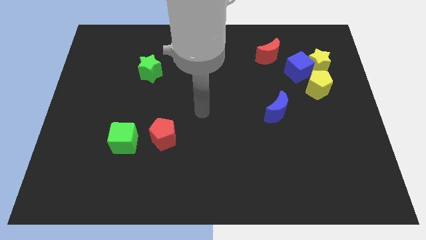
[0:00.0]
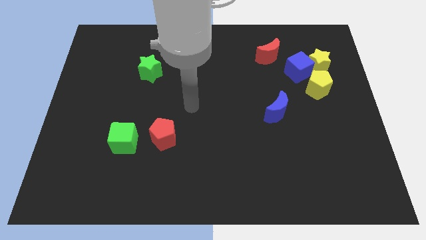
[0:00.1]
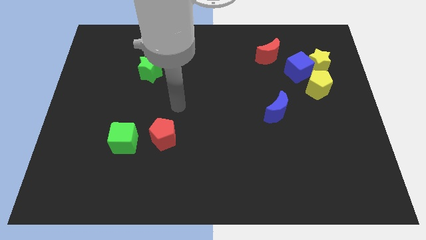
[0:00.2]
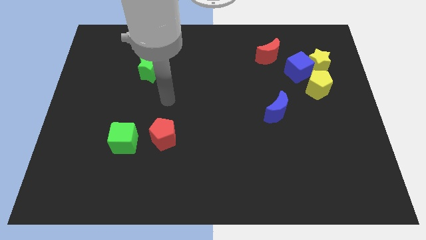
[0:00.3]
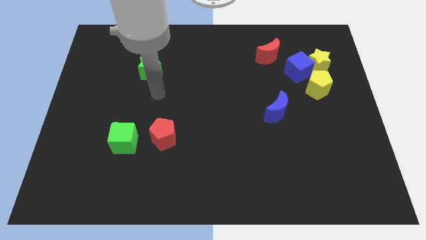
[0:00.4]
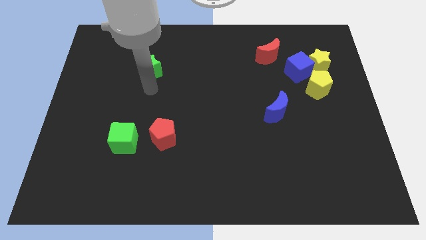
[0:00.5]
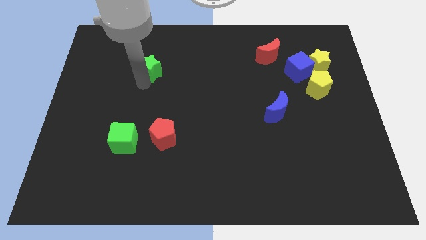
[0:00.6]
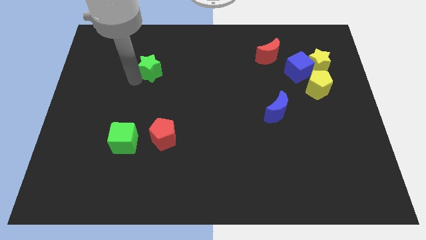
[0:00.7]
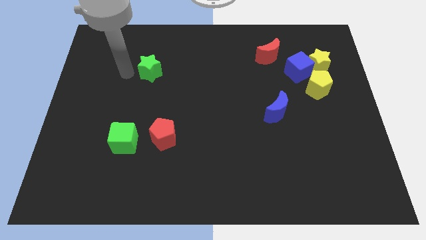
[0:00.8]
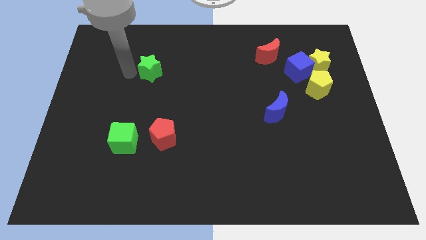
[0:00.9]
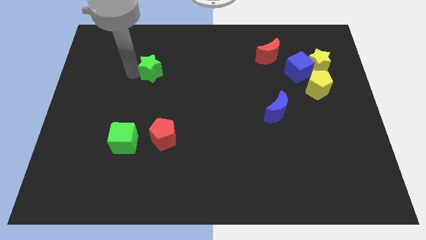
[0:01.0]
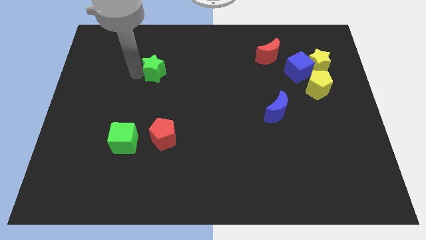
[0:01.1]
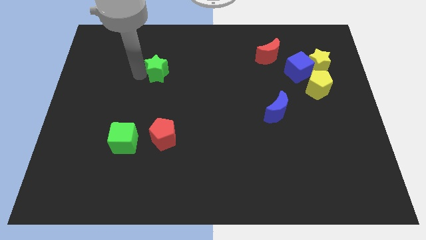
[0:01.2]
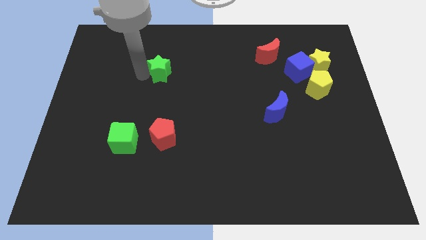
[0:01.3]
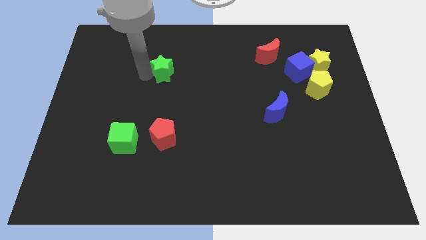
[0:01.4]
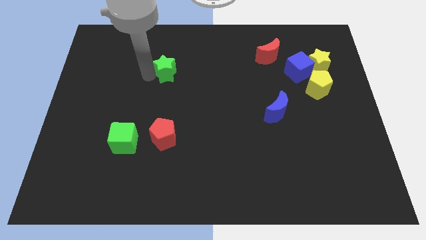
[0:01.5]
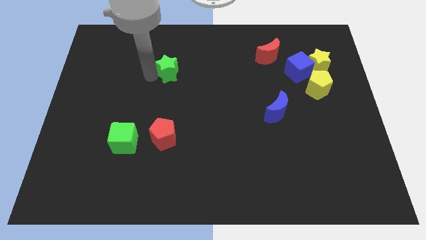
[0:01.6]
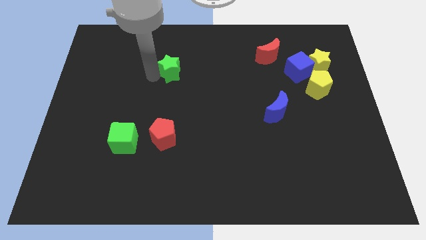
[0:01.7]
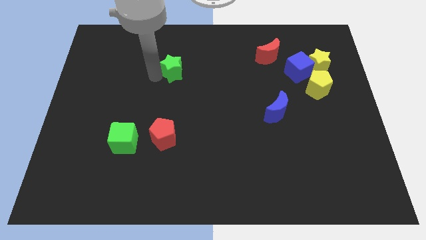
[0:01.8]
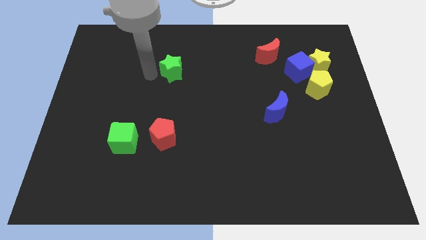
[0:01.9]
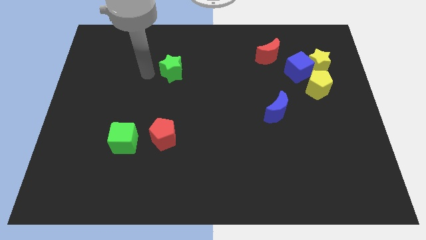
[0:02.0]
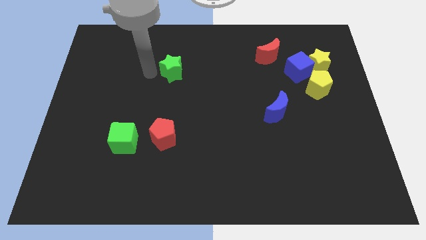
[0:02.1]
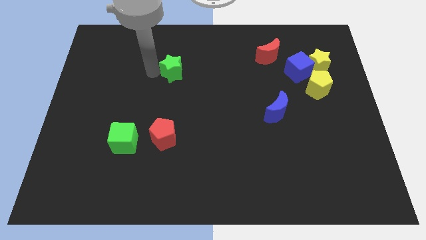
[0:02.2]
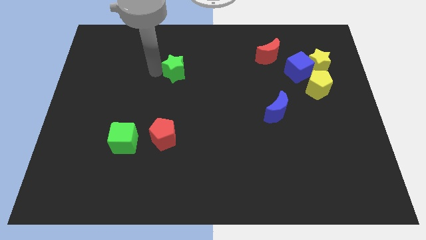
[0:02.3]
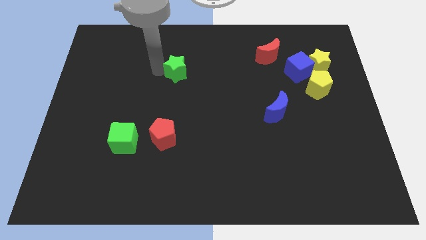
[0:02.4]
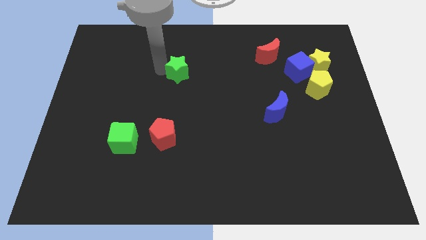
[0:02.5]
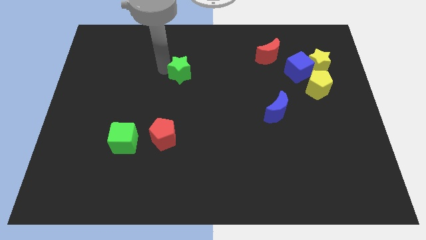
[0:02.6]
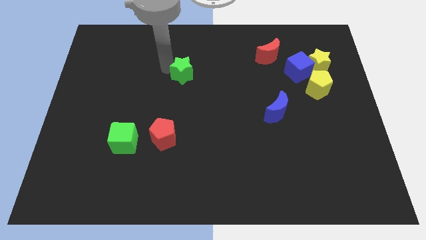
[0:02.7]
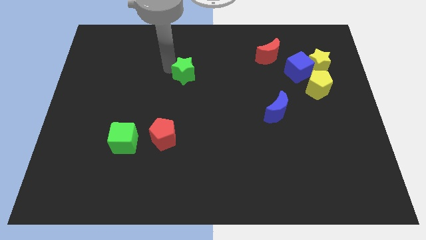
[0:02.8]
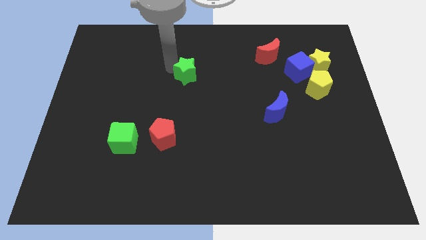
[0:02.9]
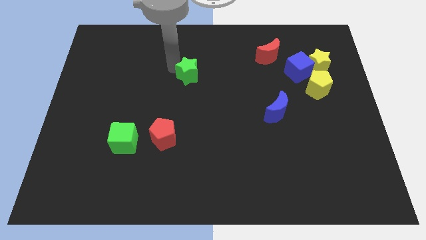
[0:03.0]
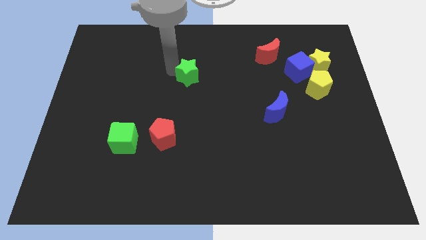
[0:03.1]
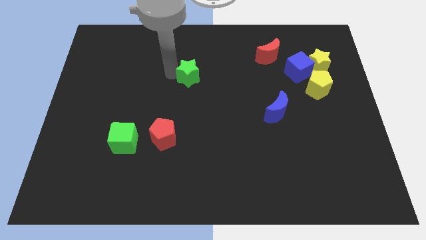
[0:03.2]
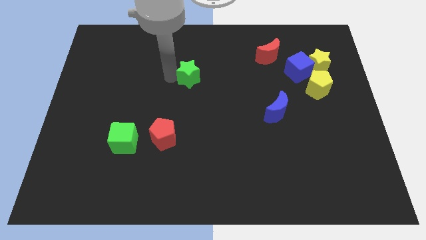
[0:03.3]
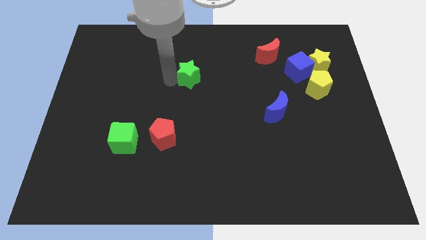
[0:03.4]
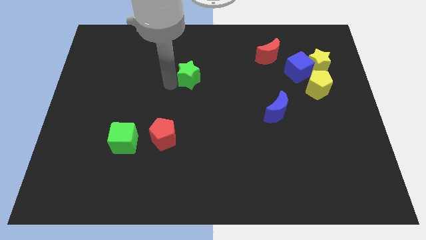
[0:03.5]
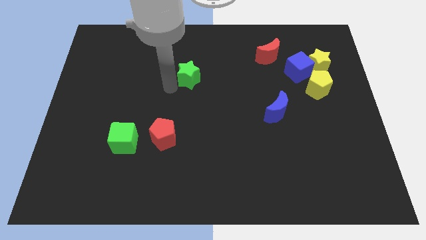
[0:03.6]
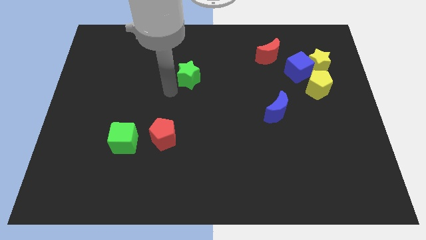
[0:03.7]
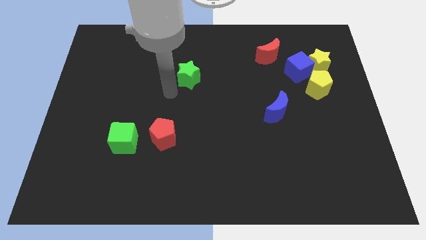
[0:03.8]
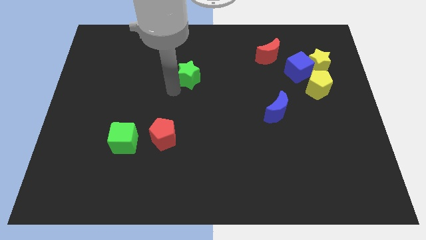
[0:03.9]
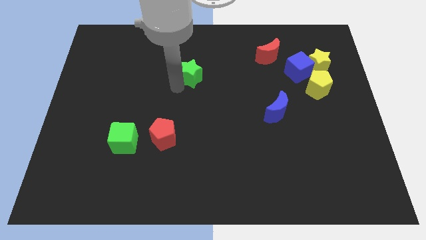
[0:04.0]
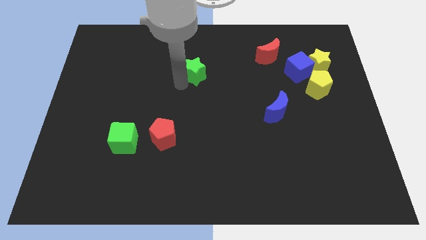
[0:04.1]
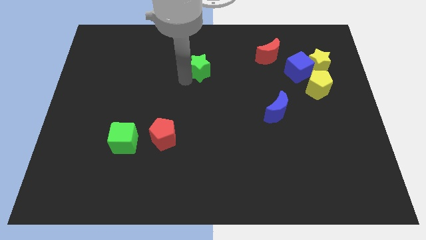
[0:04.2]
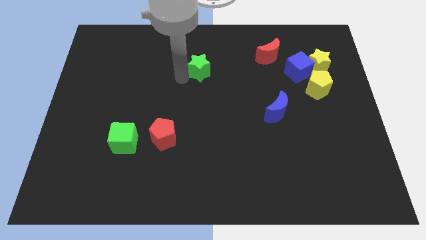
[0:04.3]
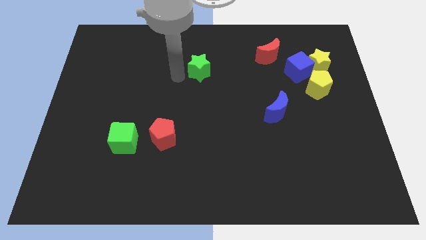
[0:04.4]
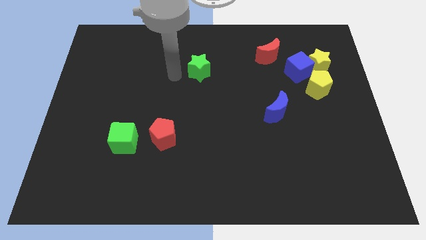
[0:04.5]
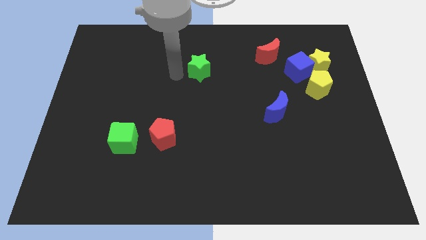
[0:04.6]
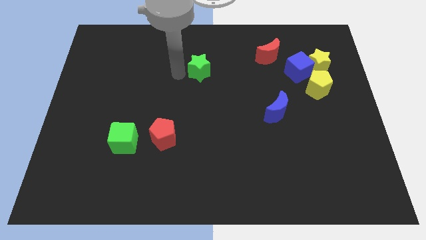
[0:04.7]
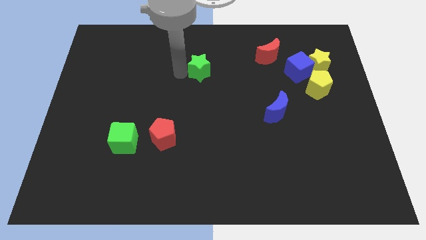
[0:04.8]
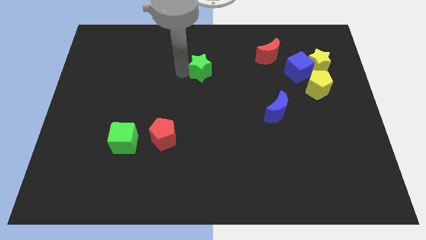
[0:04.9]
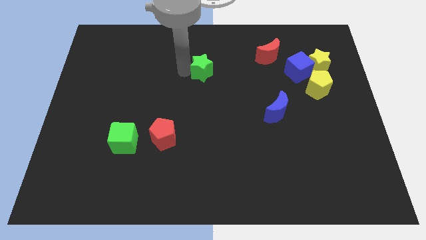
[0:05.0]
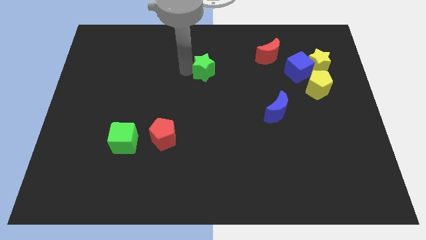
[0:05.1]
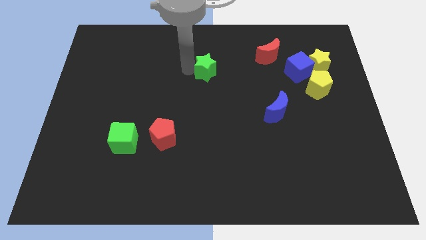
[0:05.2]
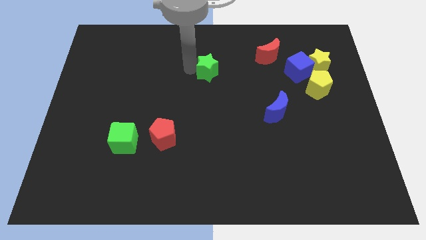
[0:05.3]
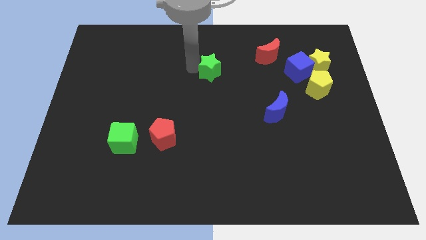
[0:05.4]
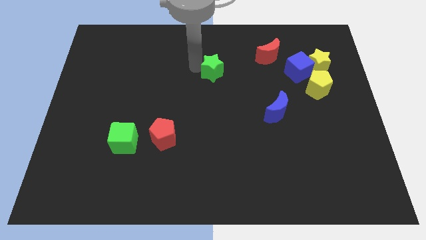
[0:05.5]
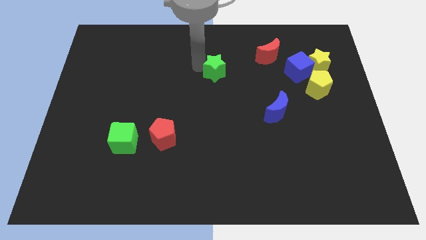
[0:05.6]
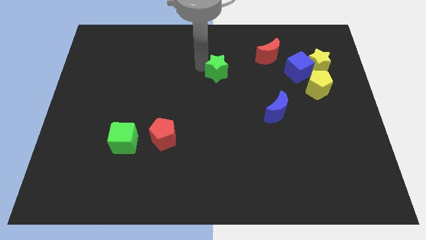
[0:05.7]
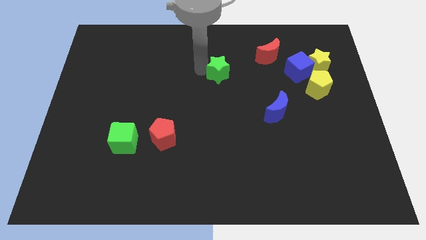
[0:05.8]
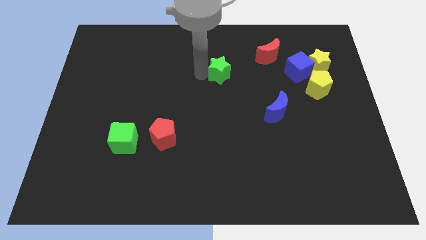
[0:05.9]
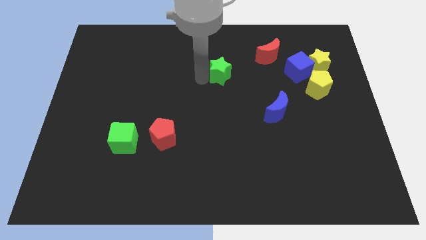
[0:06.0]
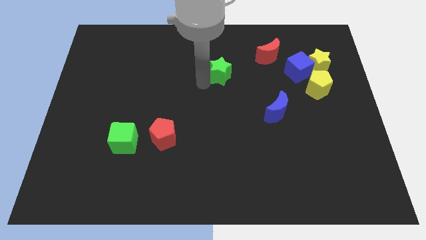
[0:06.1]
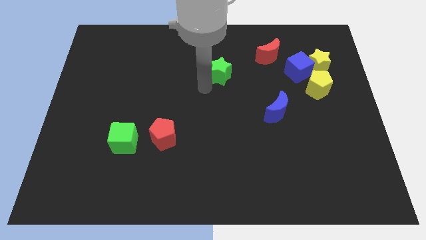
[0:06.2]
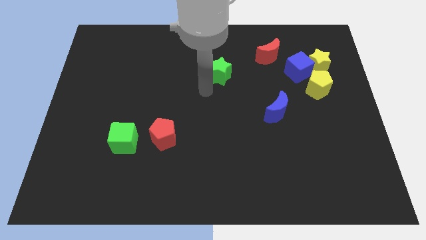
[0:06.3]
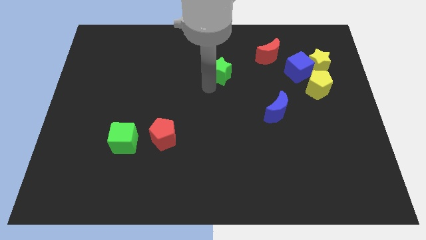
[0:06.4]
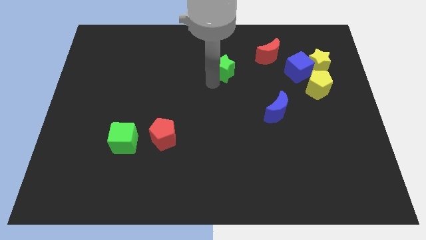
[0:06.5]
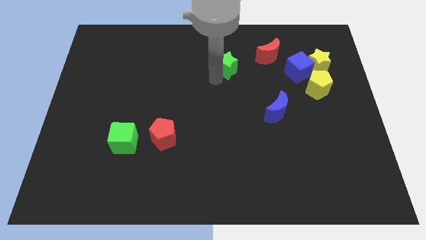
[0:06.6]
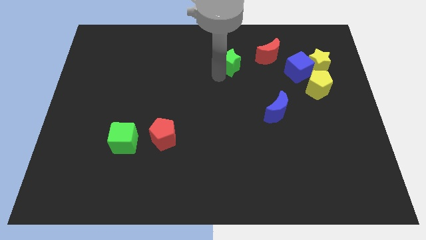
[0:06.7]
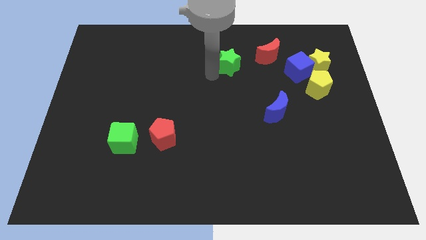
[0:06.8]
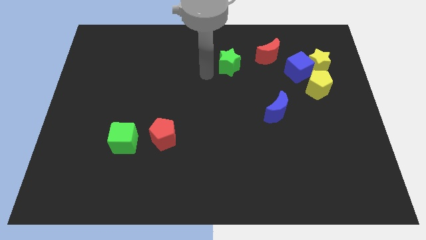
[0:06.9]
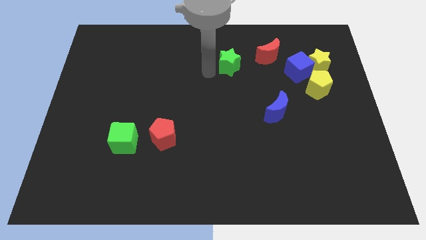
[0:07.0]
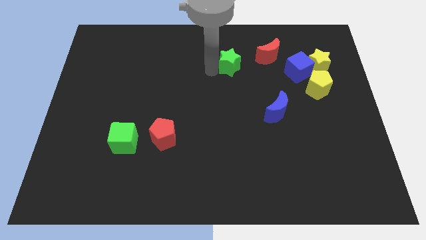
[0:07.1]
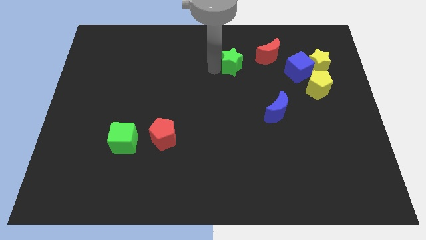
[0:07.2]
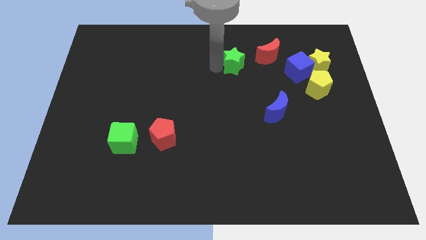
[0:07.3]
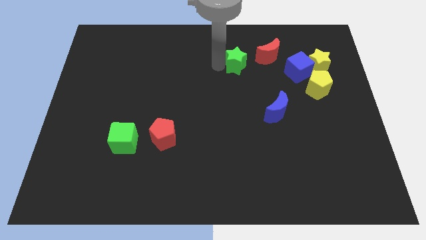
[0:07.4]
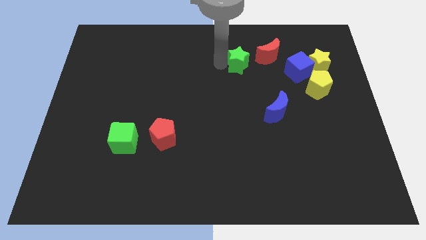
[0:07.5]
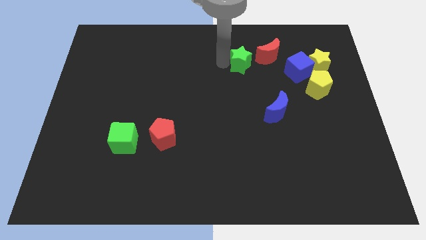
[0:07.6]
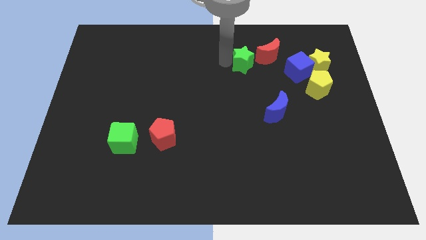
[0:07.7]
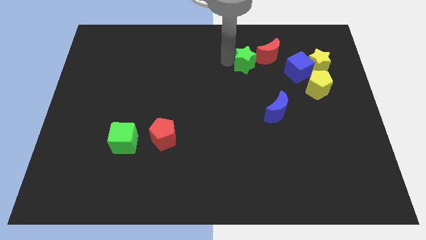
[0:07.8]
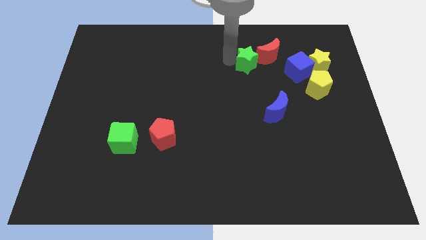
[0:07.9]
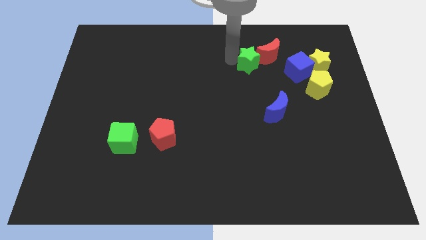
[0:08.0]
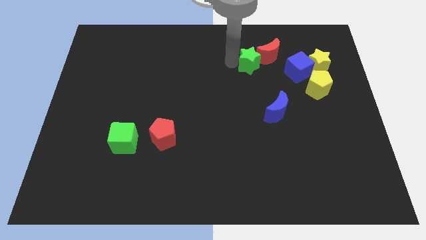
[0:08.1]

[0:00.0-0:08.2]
put the green star to the red moon
